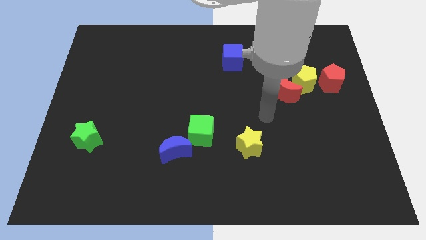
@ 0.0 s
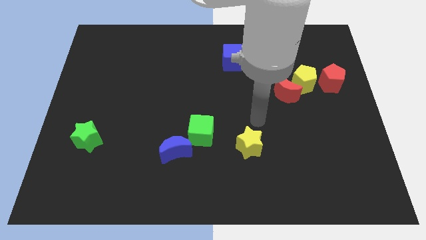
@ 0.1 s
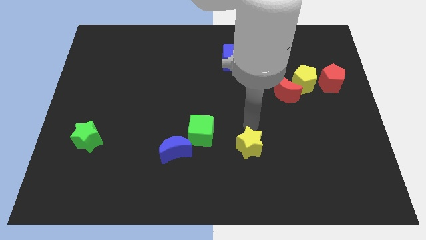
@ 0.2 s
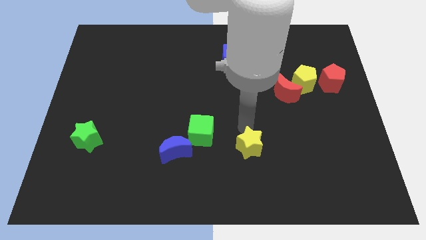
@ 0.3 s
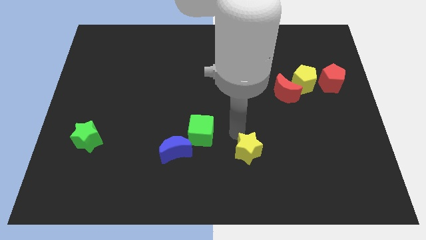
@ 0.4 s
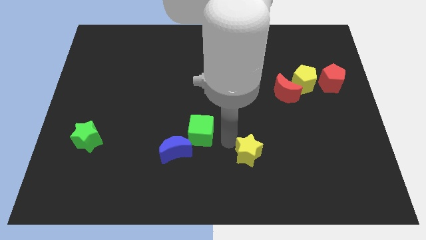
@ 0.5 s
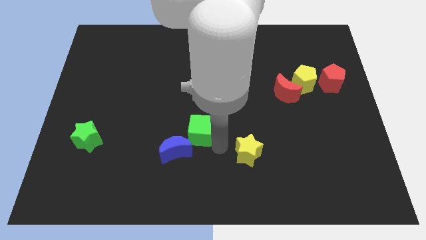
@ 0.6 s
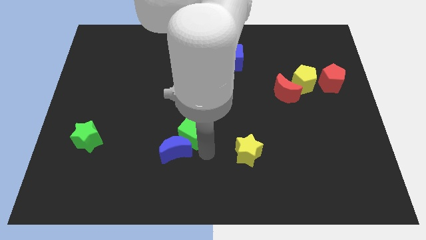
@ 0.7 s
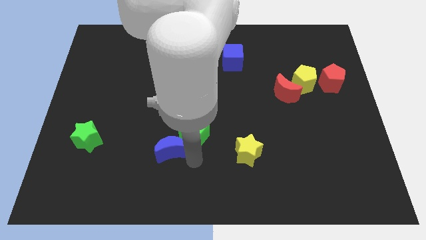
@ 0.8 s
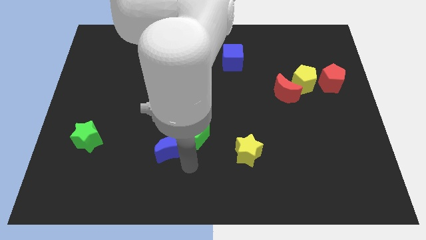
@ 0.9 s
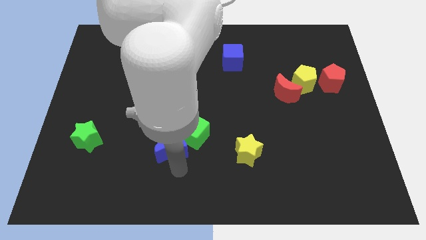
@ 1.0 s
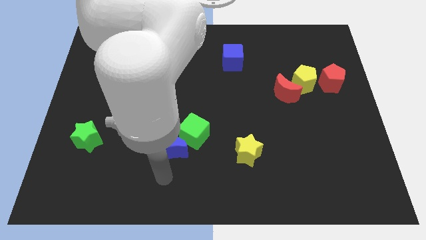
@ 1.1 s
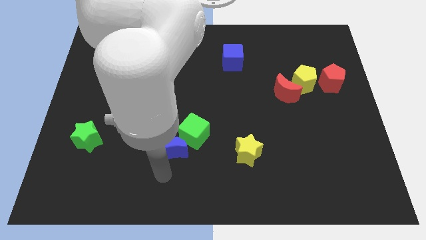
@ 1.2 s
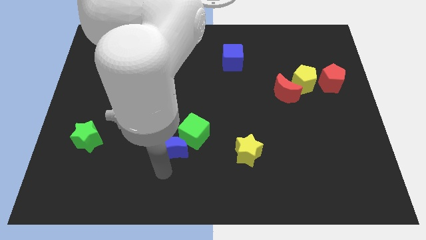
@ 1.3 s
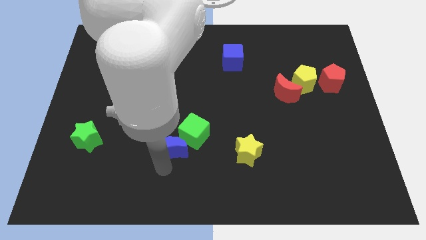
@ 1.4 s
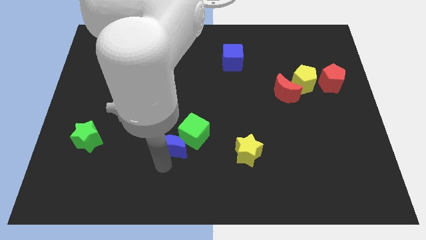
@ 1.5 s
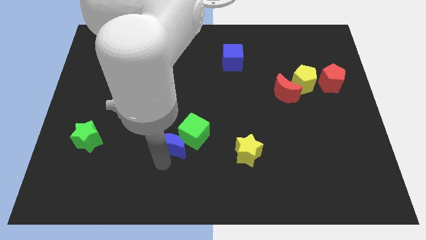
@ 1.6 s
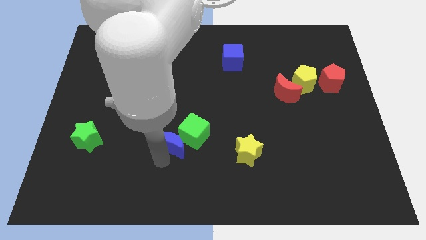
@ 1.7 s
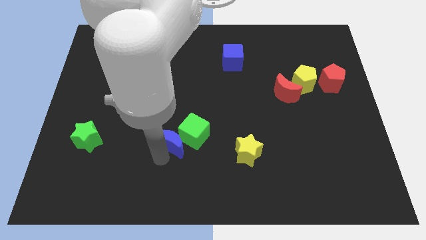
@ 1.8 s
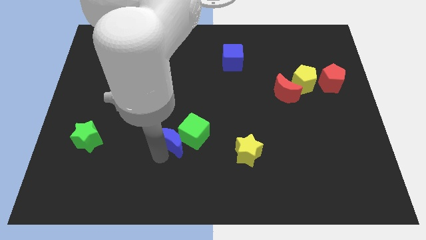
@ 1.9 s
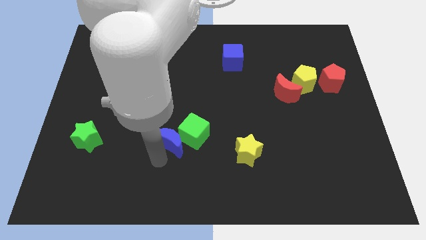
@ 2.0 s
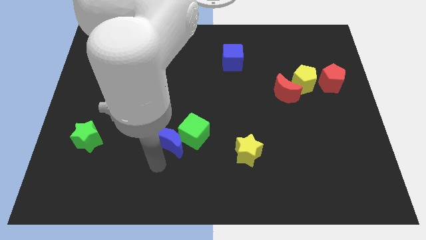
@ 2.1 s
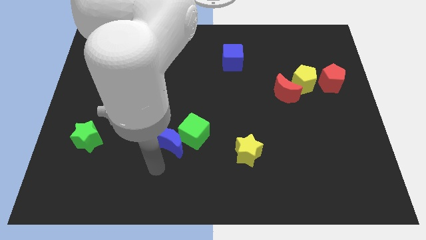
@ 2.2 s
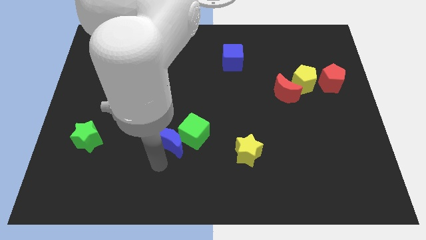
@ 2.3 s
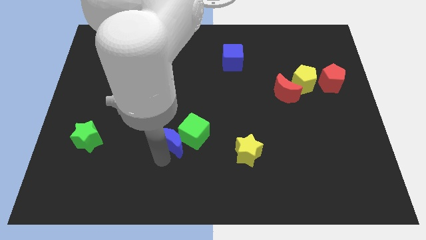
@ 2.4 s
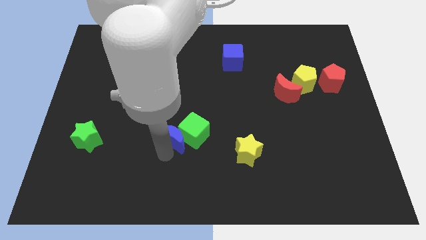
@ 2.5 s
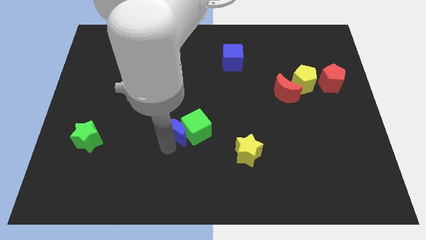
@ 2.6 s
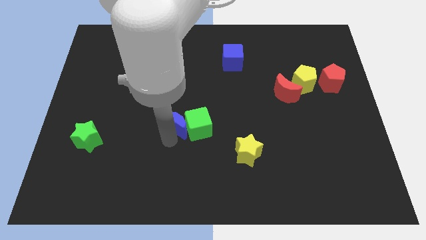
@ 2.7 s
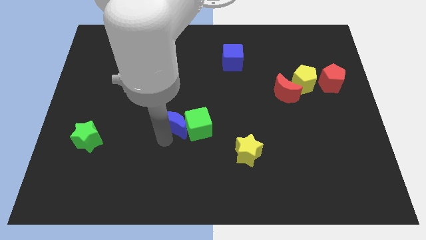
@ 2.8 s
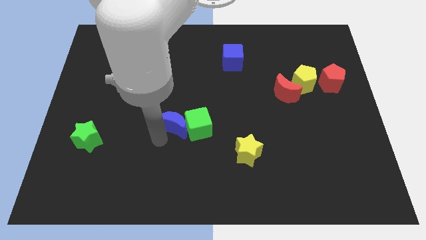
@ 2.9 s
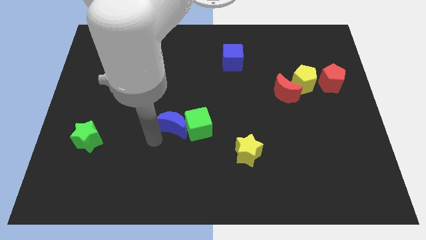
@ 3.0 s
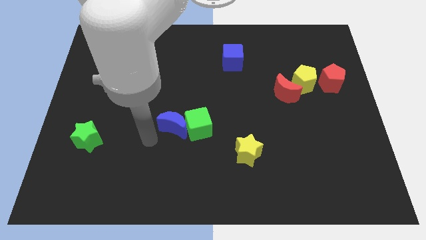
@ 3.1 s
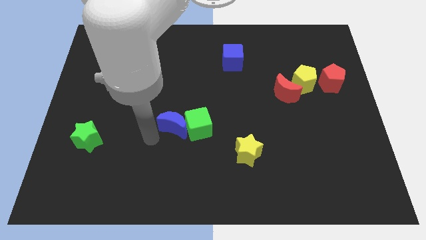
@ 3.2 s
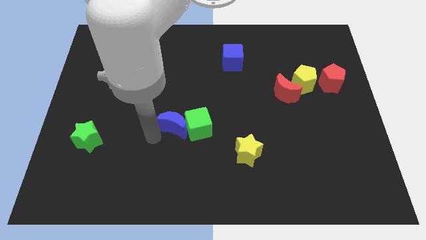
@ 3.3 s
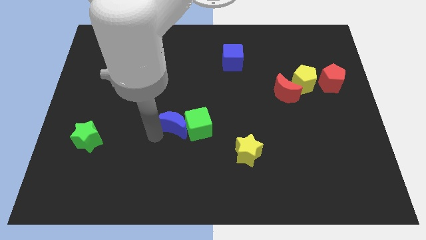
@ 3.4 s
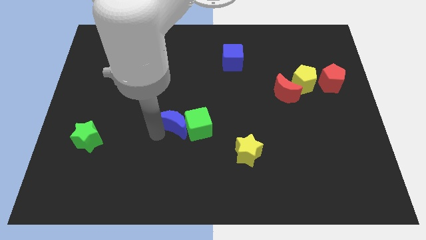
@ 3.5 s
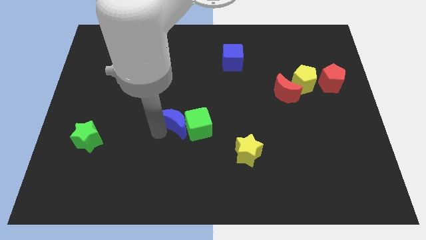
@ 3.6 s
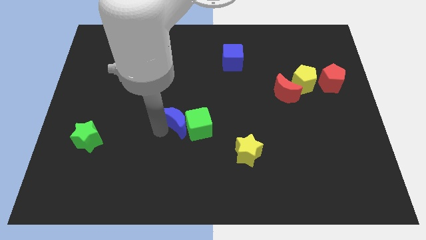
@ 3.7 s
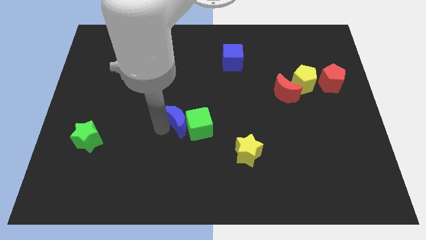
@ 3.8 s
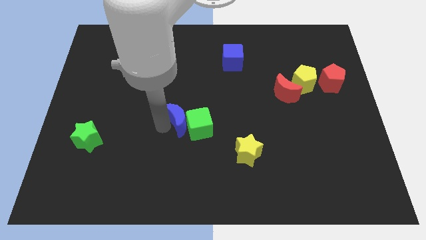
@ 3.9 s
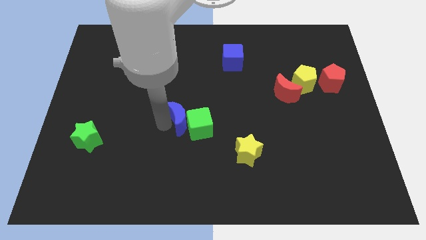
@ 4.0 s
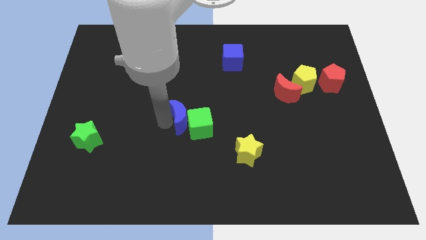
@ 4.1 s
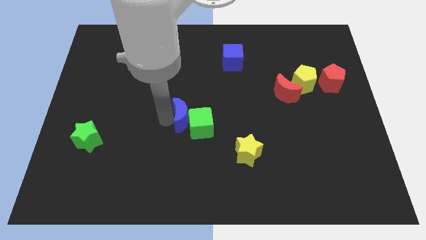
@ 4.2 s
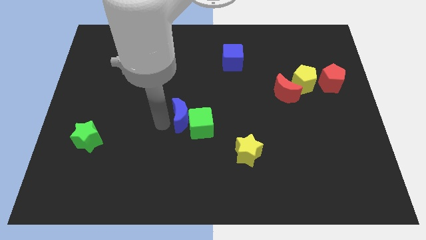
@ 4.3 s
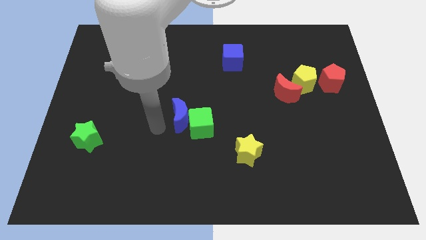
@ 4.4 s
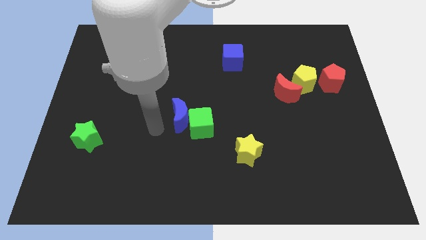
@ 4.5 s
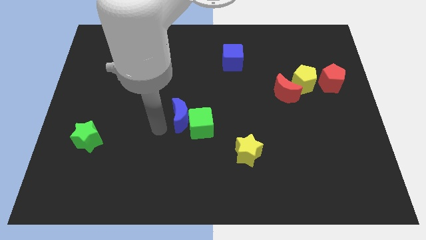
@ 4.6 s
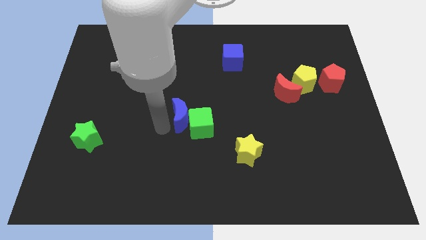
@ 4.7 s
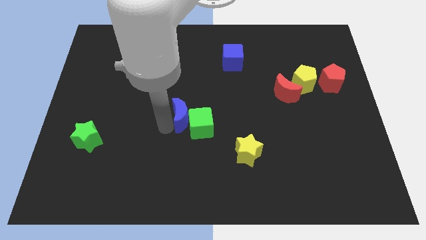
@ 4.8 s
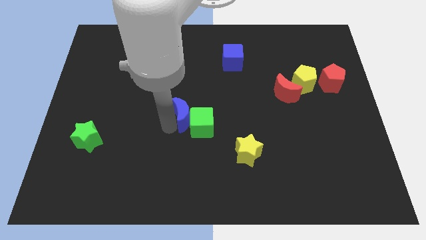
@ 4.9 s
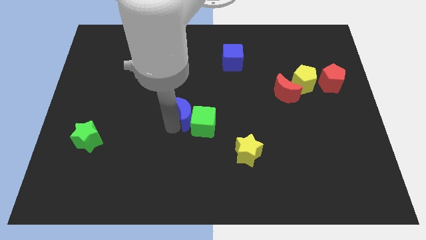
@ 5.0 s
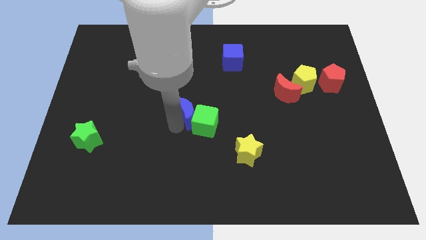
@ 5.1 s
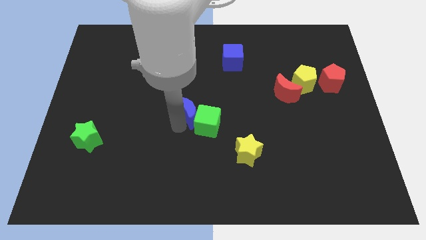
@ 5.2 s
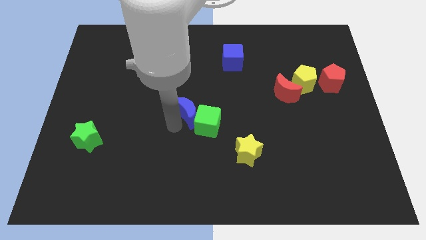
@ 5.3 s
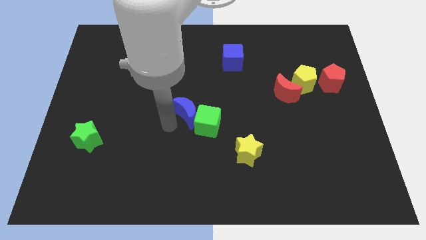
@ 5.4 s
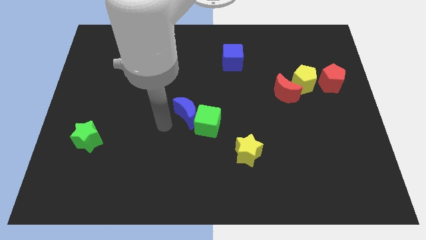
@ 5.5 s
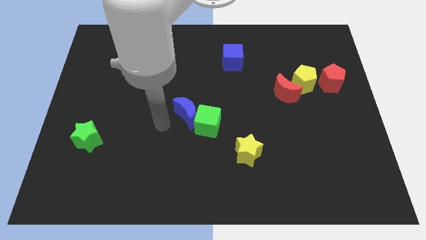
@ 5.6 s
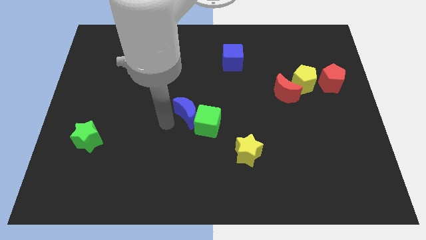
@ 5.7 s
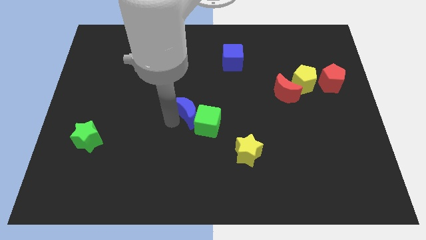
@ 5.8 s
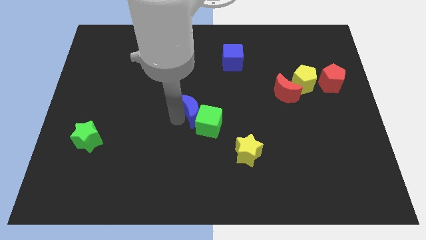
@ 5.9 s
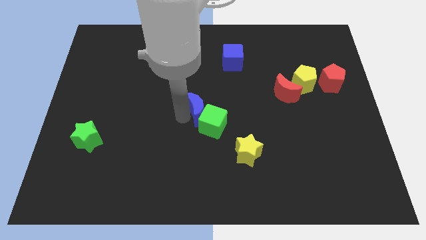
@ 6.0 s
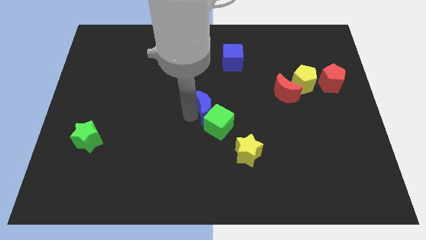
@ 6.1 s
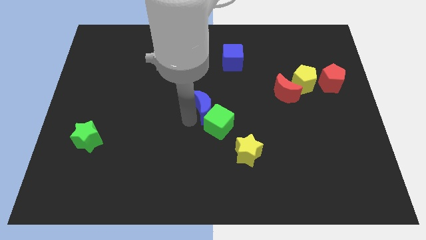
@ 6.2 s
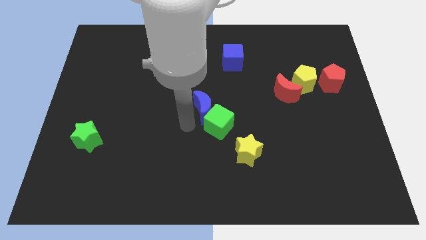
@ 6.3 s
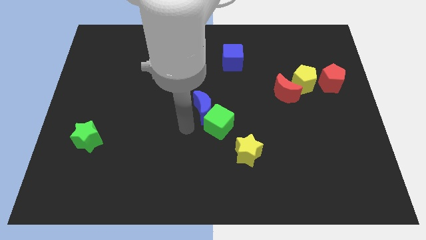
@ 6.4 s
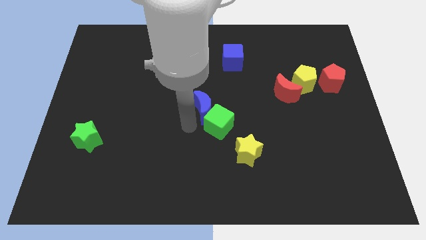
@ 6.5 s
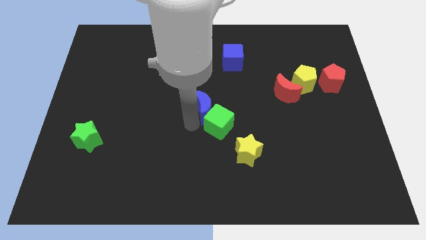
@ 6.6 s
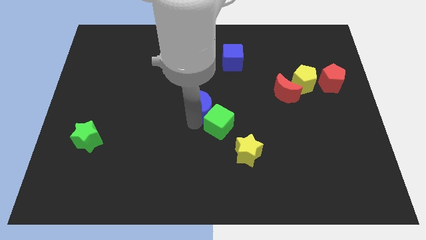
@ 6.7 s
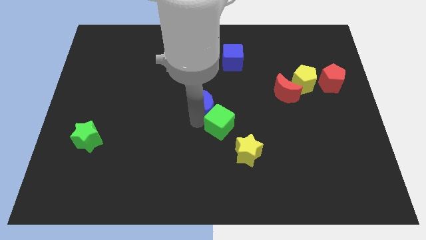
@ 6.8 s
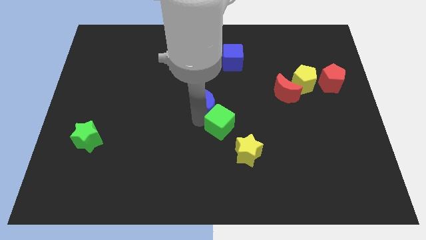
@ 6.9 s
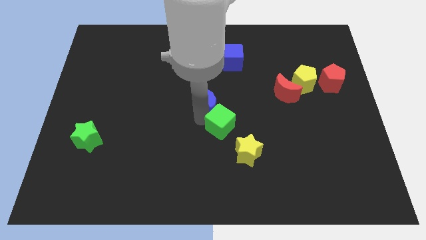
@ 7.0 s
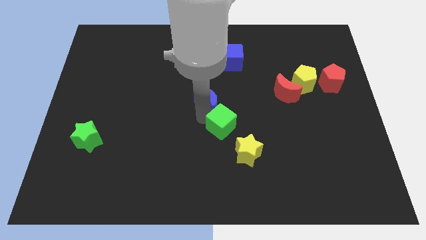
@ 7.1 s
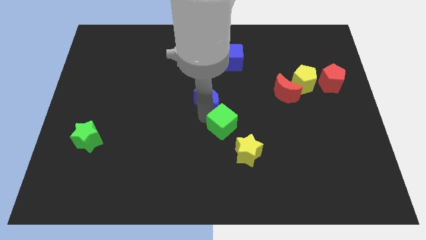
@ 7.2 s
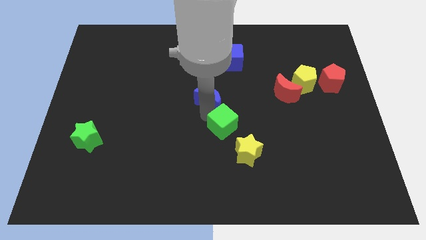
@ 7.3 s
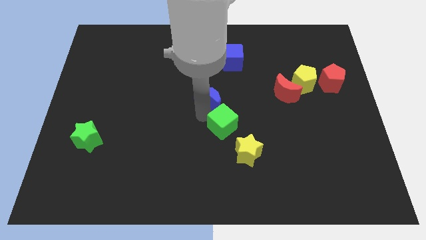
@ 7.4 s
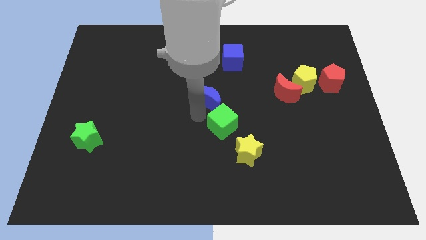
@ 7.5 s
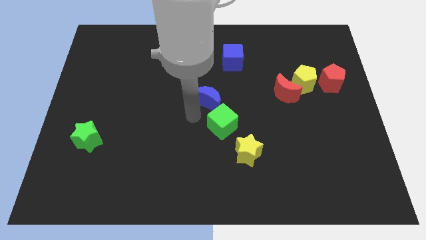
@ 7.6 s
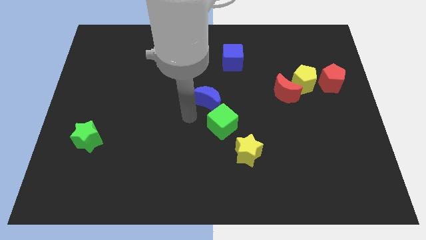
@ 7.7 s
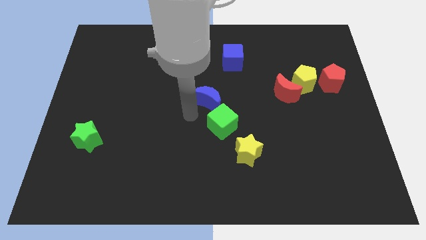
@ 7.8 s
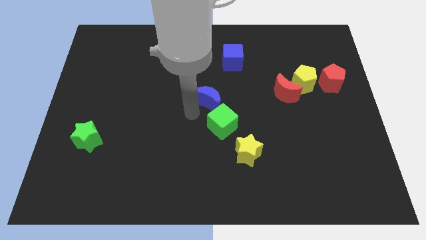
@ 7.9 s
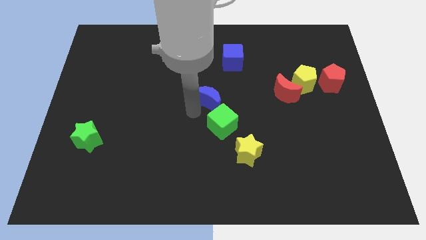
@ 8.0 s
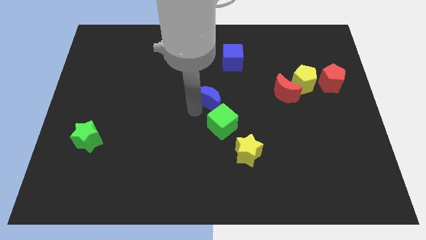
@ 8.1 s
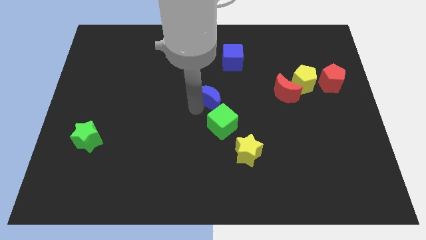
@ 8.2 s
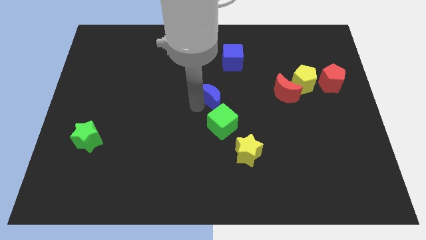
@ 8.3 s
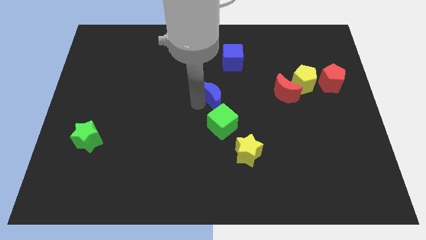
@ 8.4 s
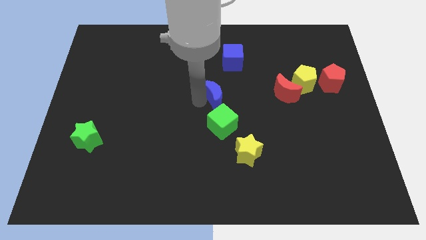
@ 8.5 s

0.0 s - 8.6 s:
slide the blue moon to the bottom side of the blue cube
